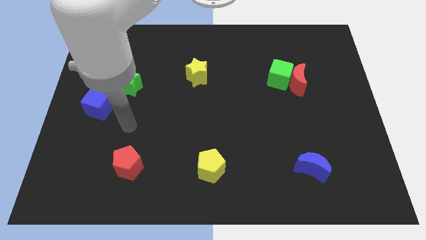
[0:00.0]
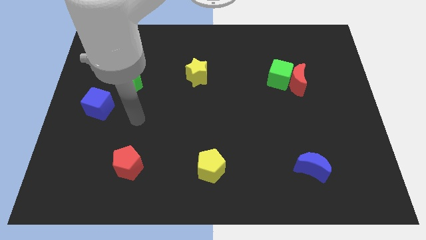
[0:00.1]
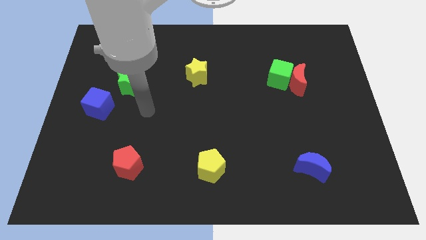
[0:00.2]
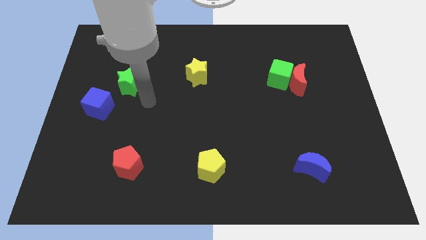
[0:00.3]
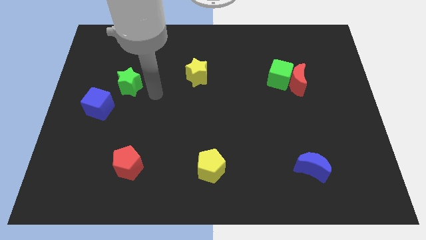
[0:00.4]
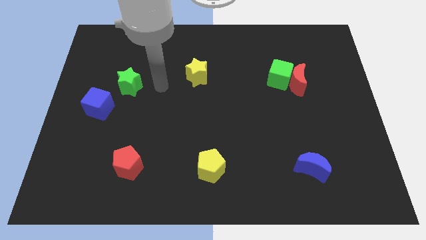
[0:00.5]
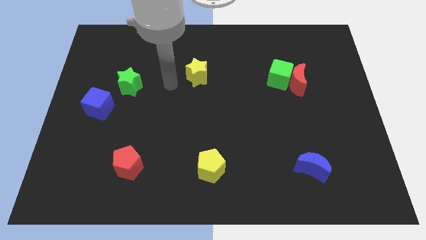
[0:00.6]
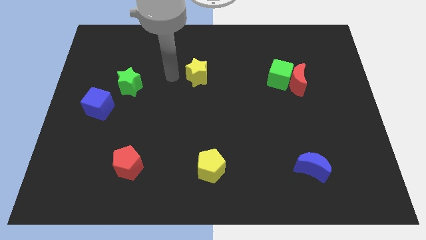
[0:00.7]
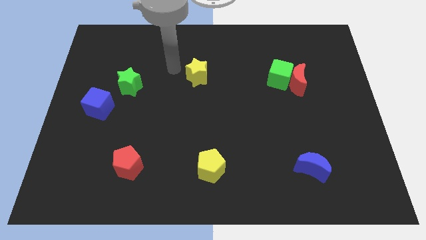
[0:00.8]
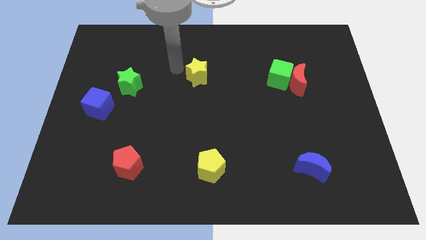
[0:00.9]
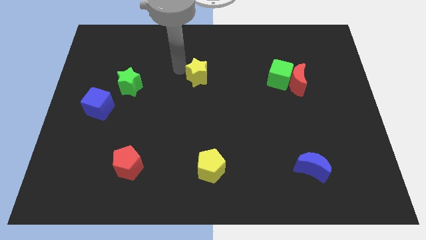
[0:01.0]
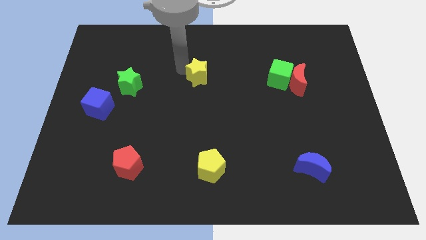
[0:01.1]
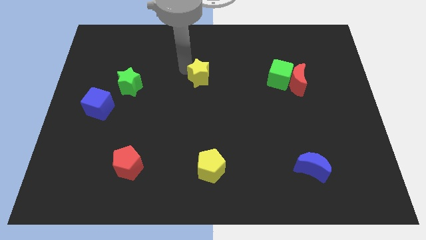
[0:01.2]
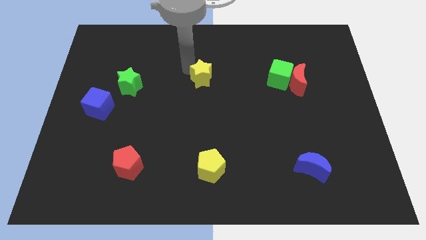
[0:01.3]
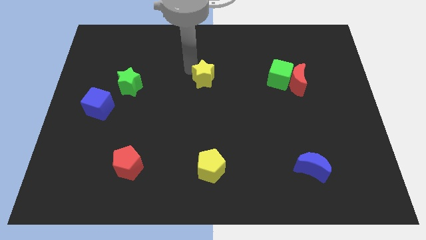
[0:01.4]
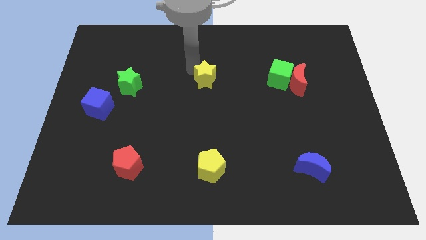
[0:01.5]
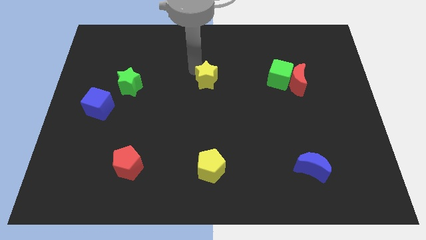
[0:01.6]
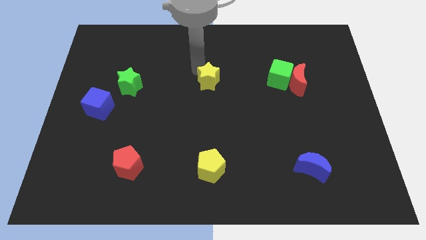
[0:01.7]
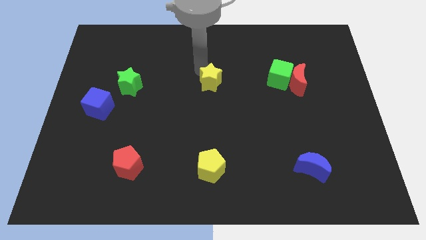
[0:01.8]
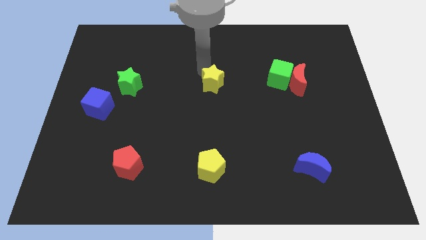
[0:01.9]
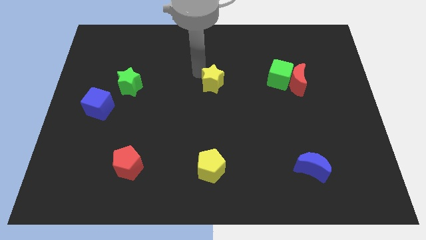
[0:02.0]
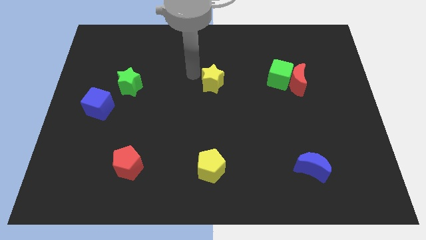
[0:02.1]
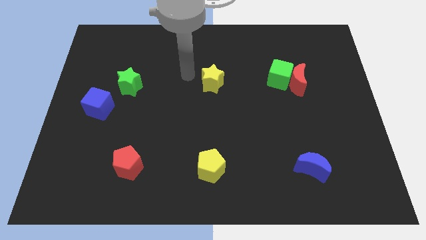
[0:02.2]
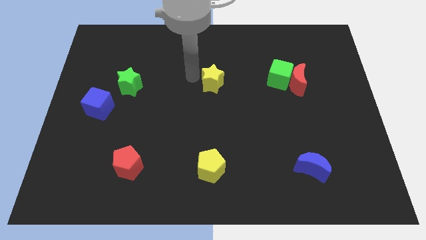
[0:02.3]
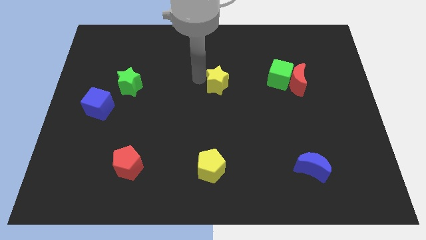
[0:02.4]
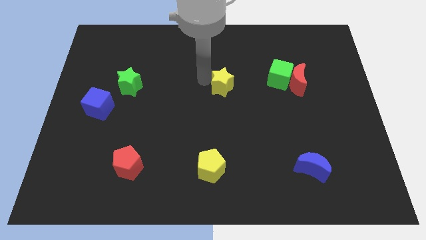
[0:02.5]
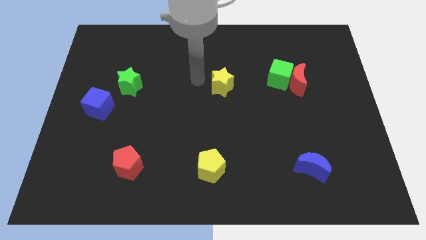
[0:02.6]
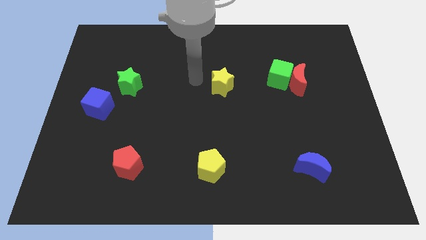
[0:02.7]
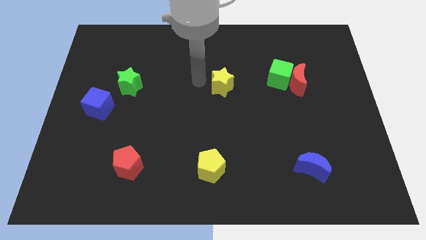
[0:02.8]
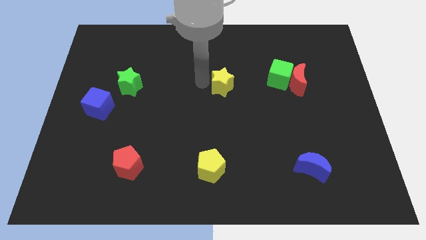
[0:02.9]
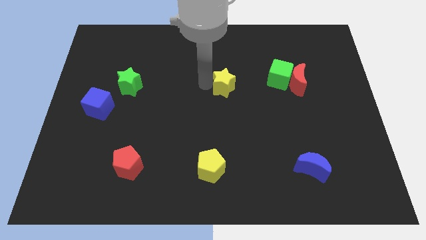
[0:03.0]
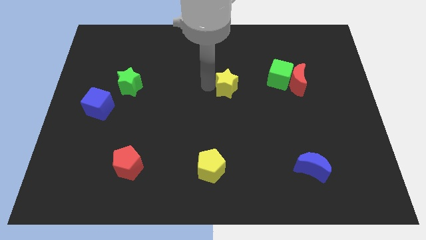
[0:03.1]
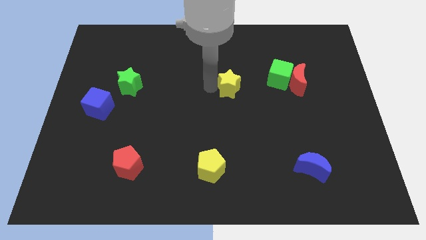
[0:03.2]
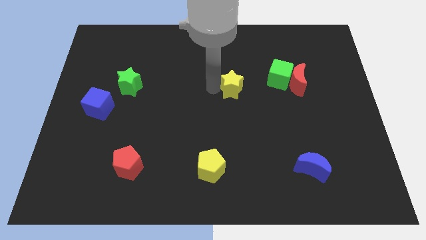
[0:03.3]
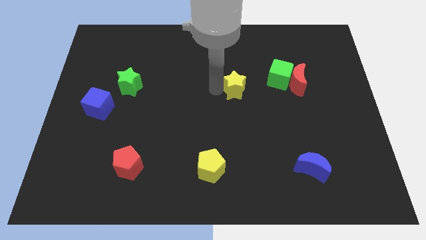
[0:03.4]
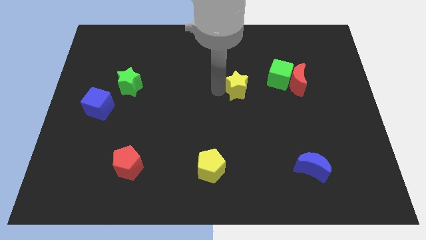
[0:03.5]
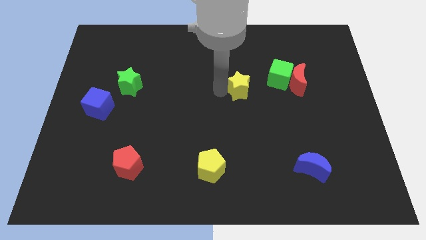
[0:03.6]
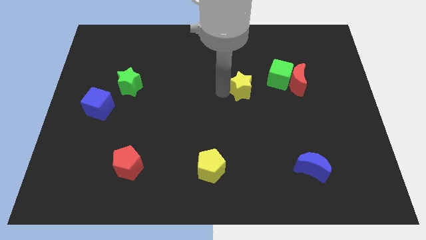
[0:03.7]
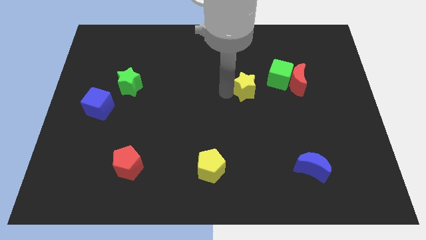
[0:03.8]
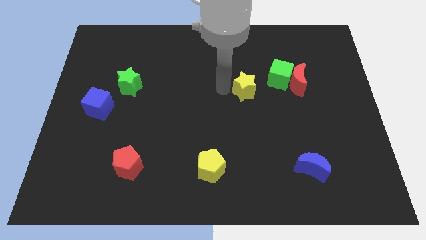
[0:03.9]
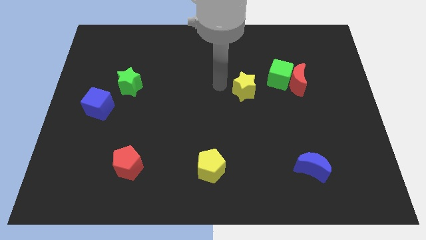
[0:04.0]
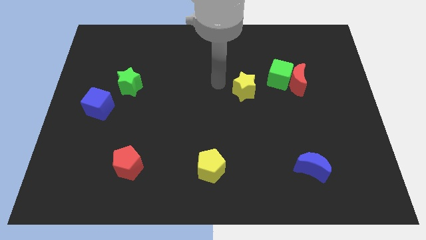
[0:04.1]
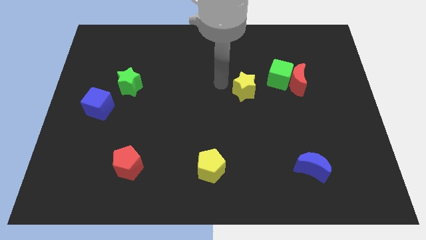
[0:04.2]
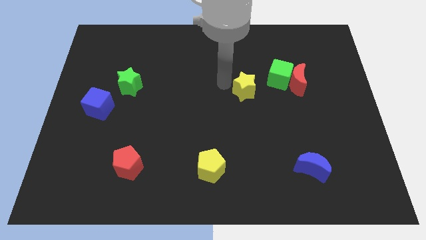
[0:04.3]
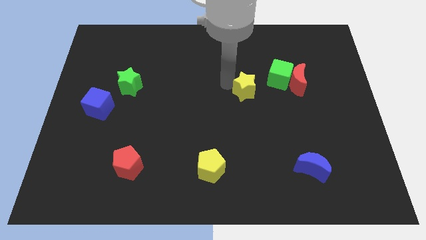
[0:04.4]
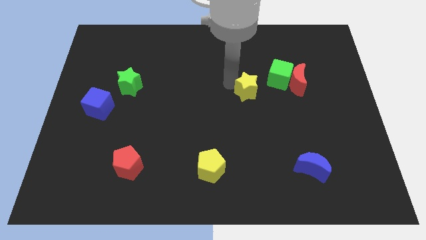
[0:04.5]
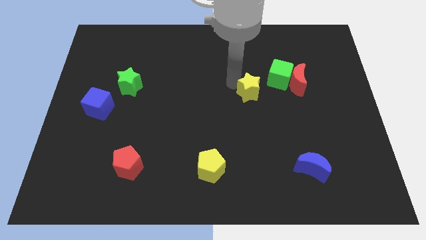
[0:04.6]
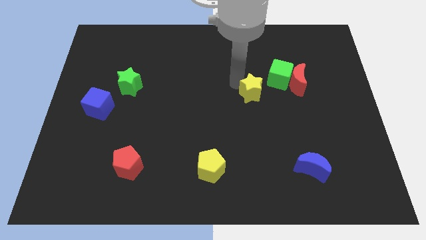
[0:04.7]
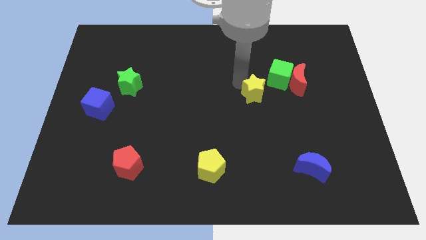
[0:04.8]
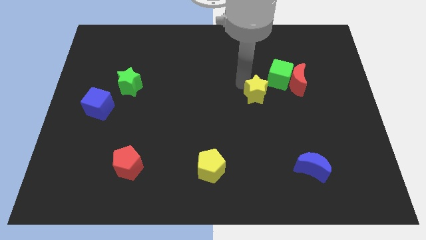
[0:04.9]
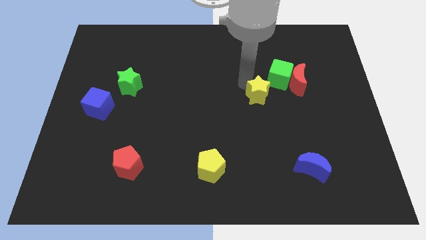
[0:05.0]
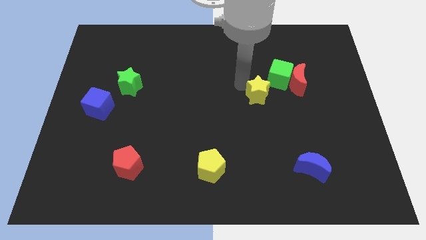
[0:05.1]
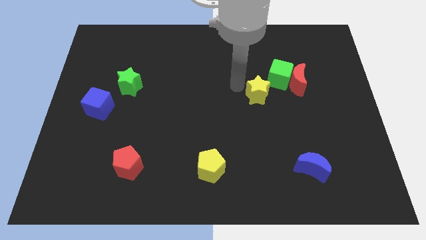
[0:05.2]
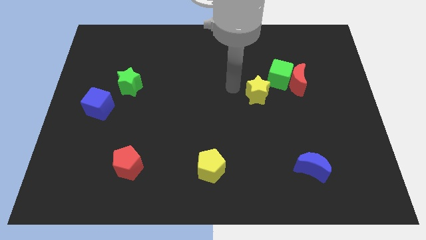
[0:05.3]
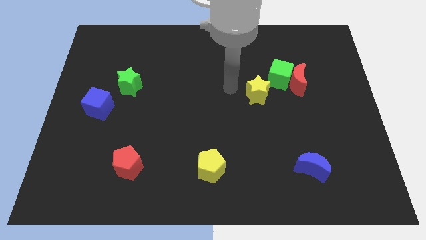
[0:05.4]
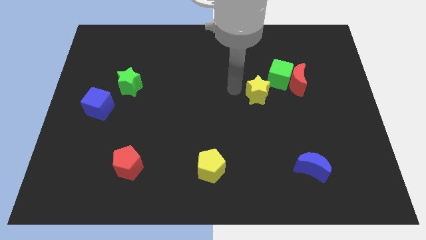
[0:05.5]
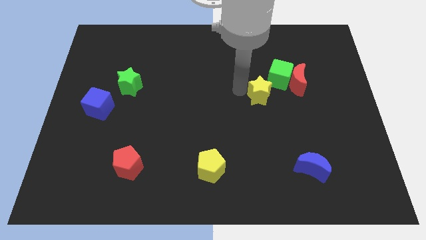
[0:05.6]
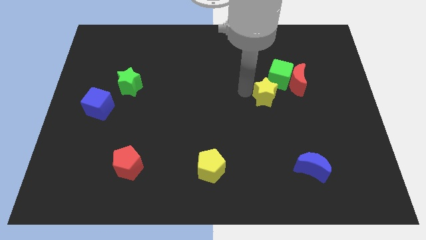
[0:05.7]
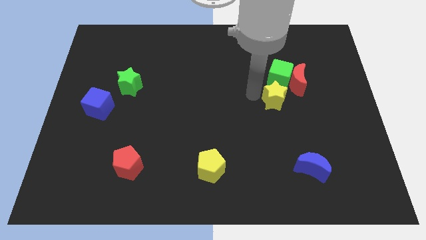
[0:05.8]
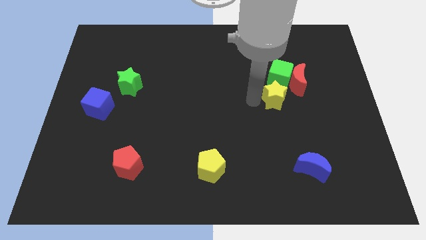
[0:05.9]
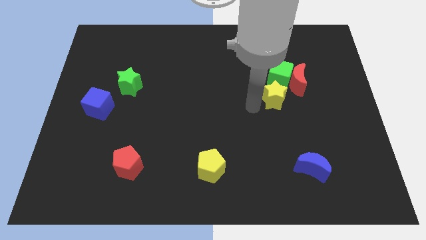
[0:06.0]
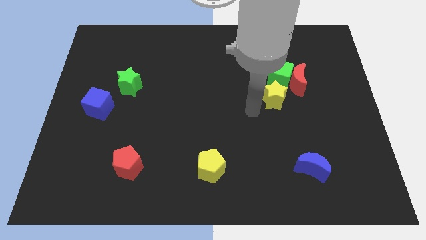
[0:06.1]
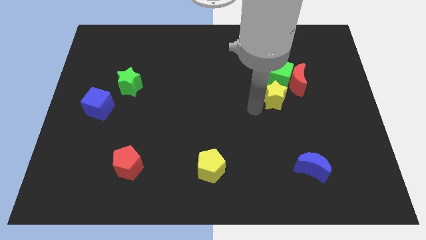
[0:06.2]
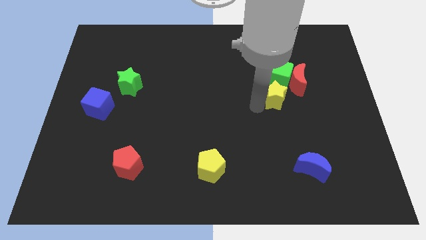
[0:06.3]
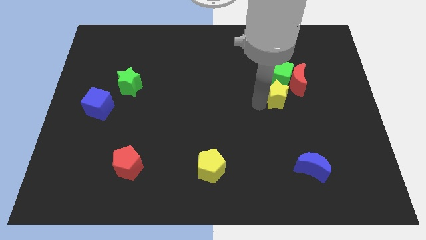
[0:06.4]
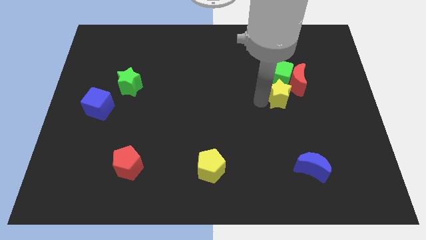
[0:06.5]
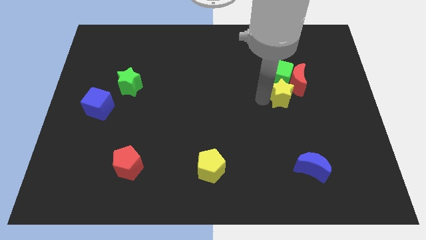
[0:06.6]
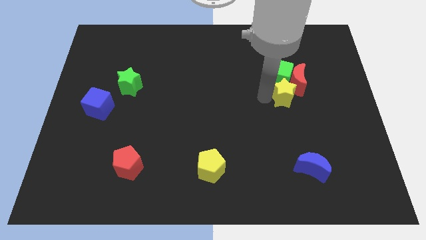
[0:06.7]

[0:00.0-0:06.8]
push the yellow star next to the red moon
